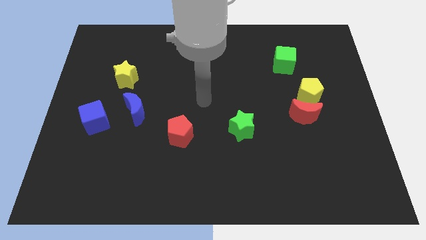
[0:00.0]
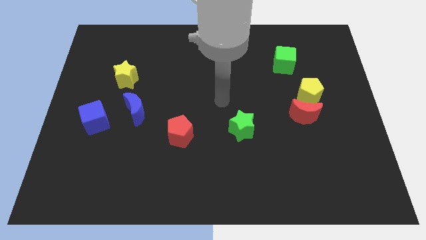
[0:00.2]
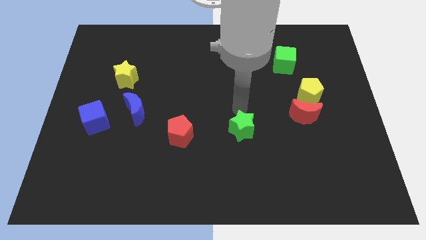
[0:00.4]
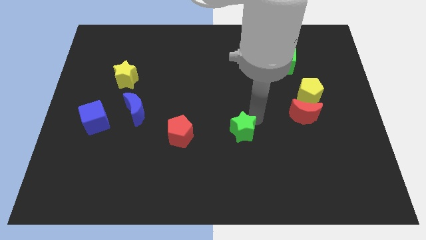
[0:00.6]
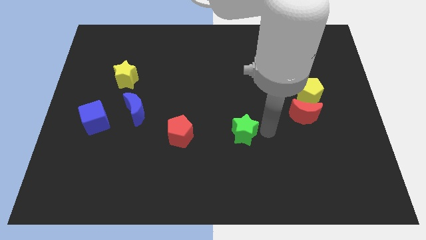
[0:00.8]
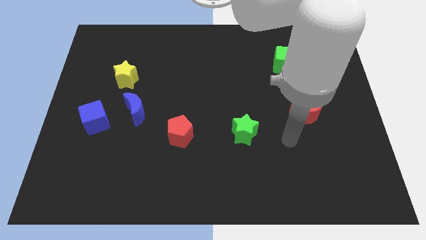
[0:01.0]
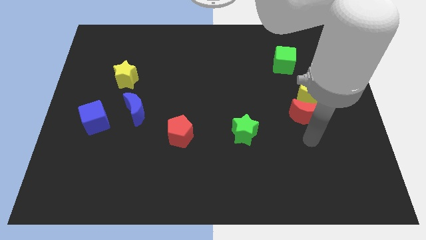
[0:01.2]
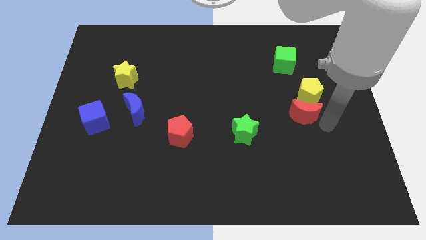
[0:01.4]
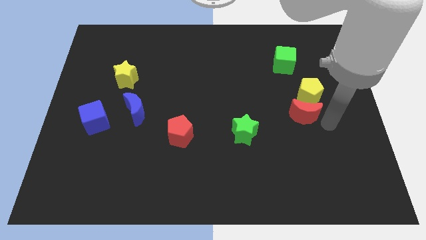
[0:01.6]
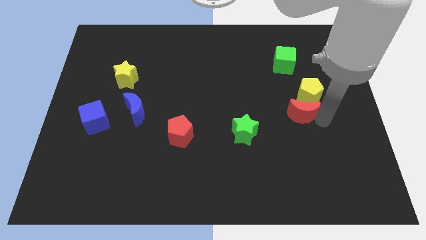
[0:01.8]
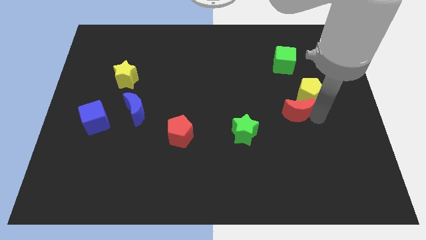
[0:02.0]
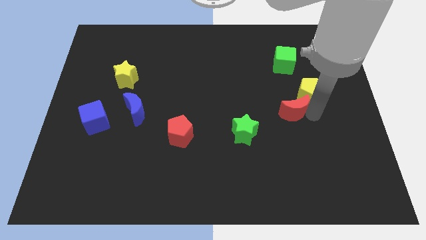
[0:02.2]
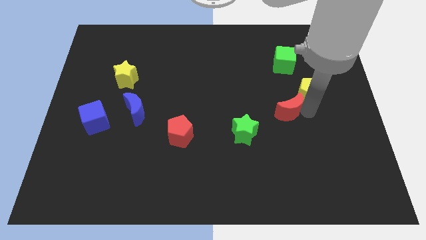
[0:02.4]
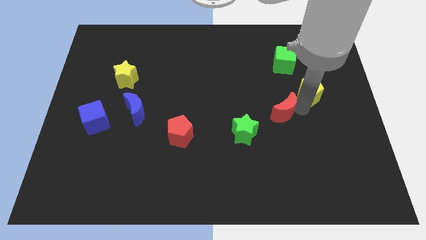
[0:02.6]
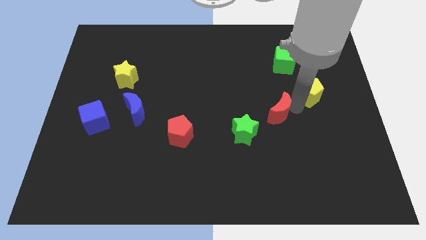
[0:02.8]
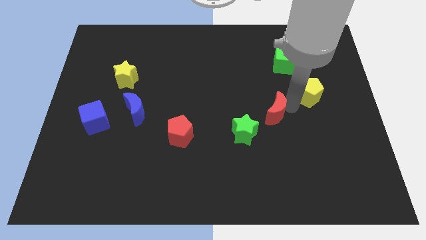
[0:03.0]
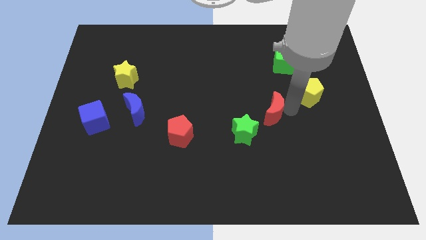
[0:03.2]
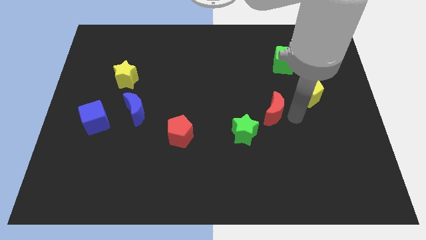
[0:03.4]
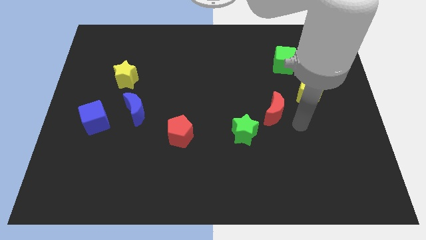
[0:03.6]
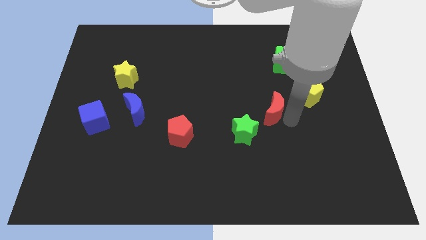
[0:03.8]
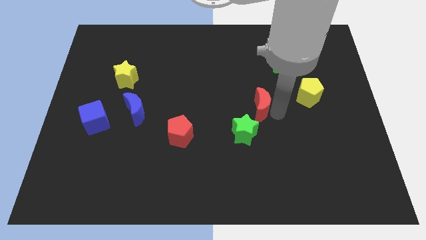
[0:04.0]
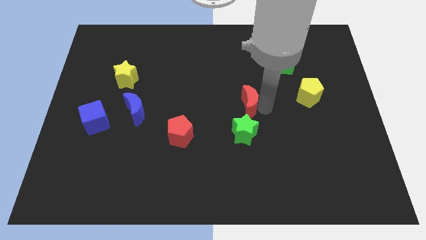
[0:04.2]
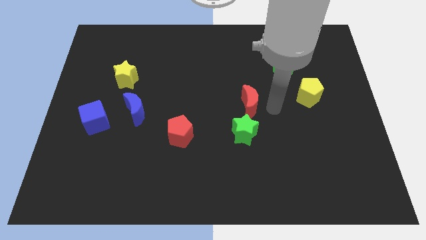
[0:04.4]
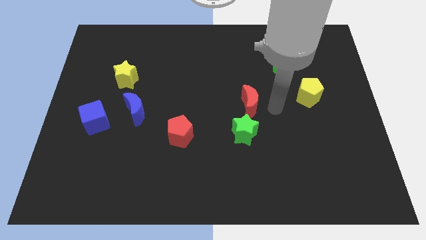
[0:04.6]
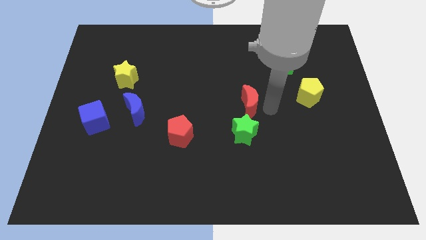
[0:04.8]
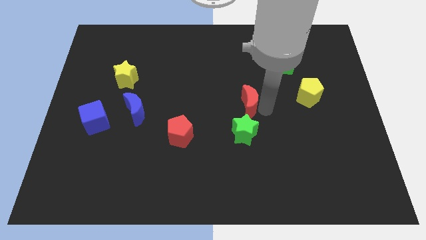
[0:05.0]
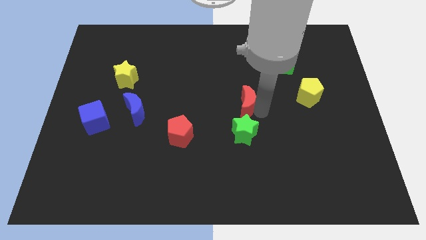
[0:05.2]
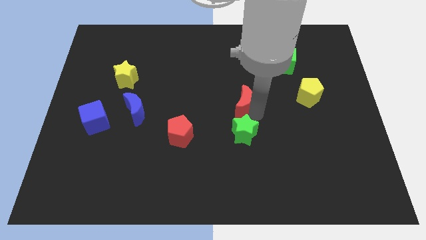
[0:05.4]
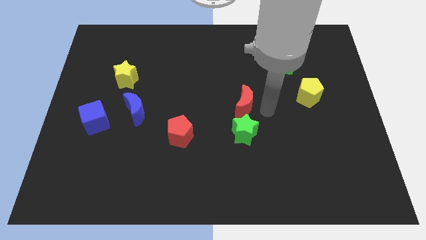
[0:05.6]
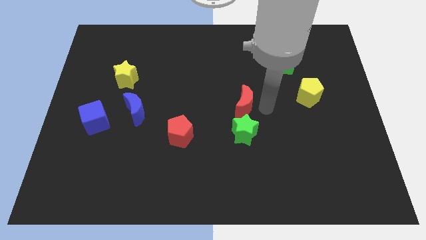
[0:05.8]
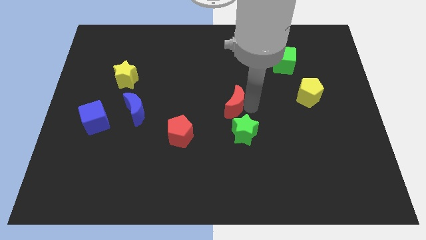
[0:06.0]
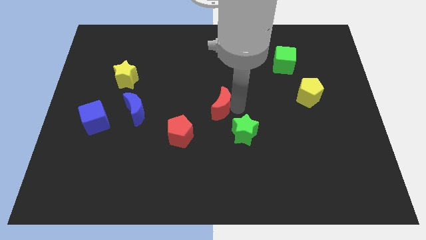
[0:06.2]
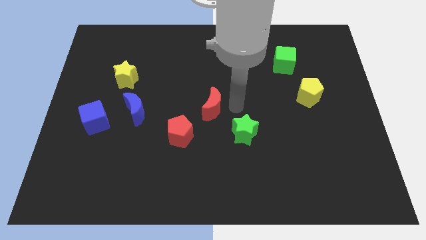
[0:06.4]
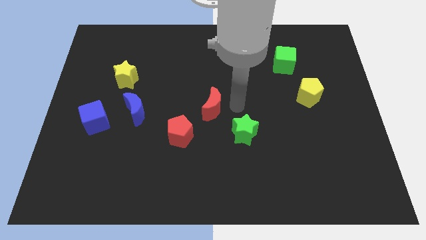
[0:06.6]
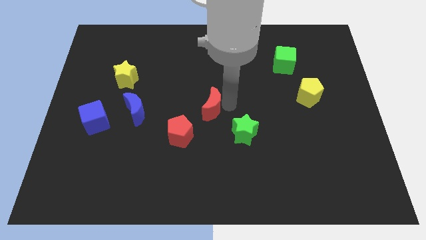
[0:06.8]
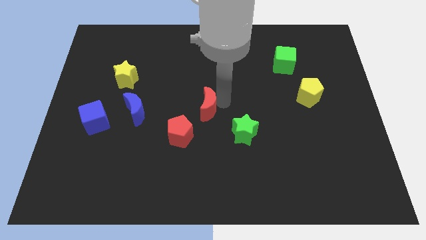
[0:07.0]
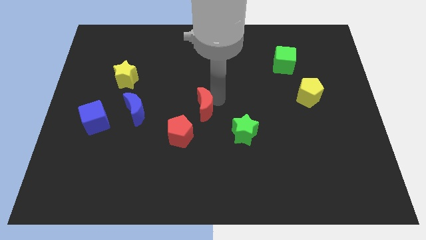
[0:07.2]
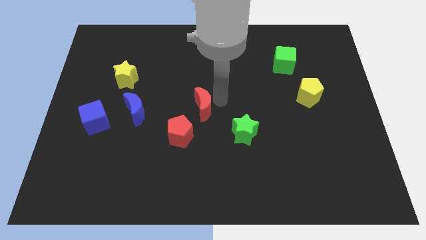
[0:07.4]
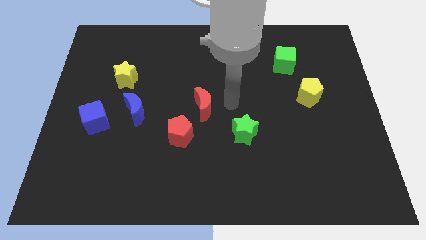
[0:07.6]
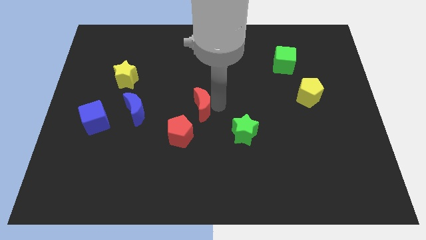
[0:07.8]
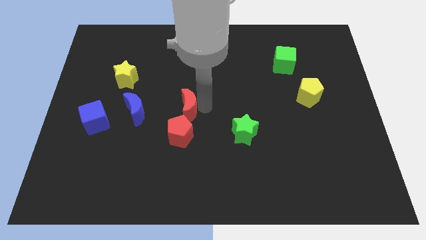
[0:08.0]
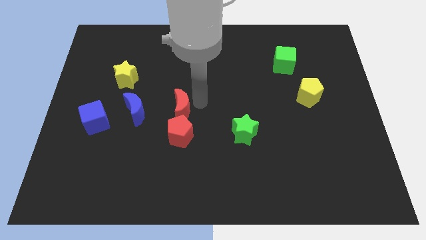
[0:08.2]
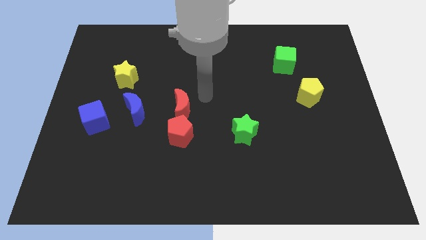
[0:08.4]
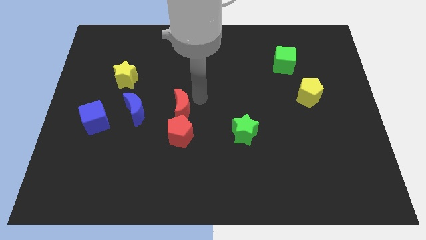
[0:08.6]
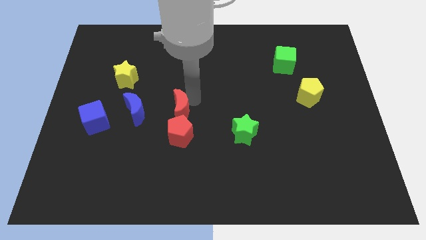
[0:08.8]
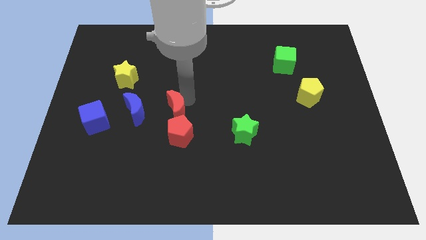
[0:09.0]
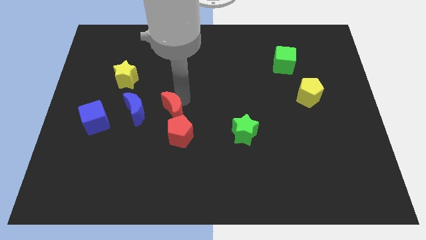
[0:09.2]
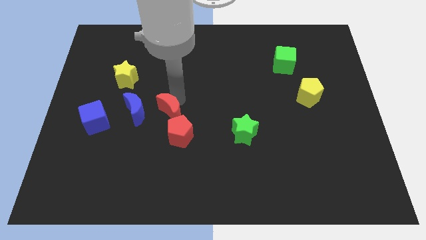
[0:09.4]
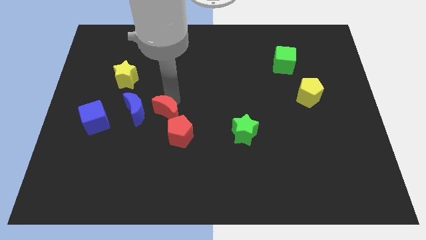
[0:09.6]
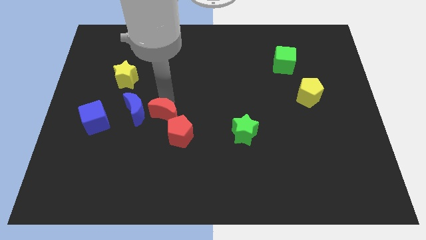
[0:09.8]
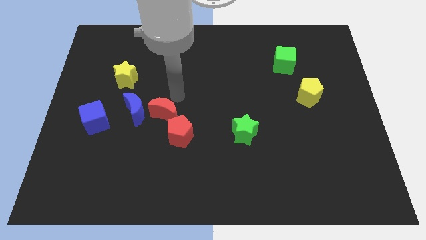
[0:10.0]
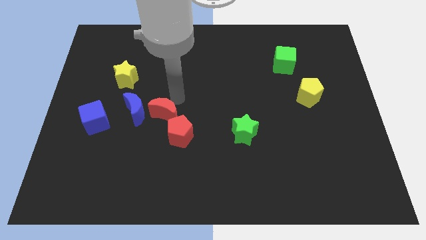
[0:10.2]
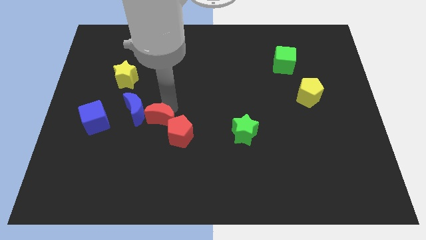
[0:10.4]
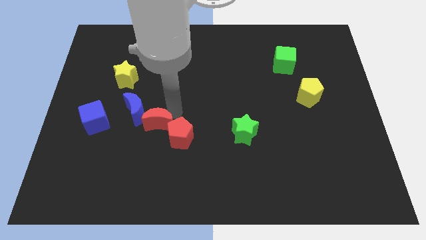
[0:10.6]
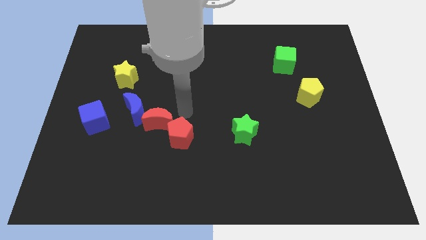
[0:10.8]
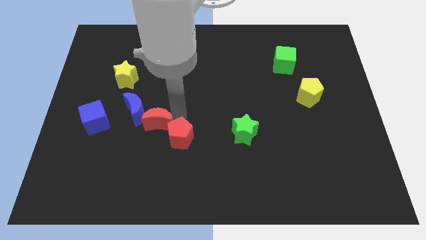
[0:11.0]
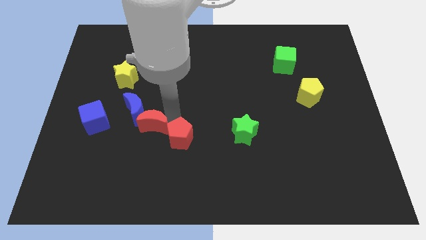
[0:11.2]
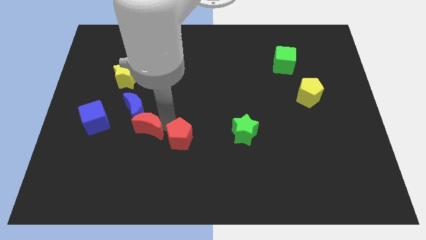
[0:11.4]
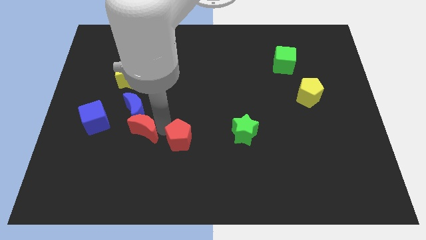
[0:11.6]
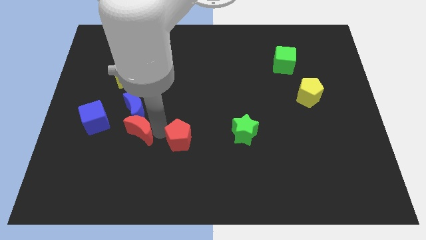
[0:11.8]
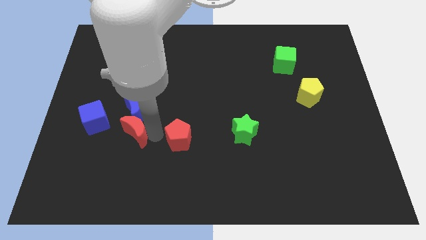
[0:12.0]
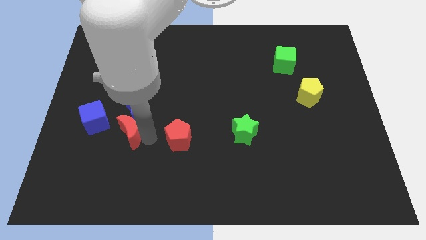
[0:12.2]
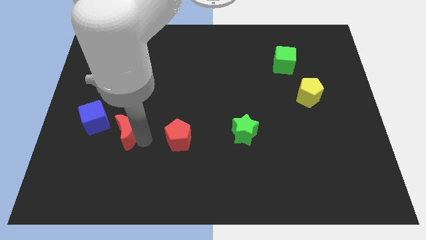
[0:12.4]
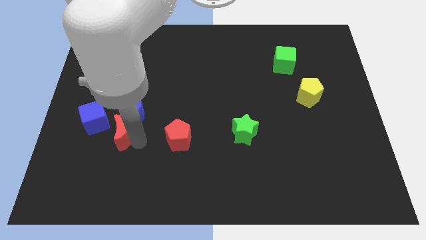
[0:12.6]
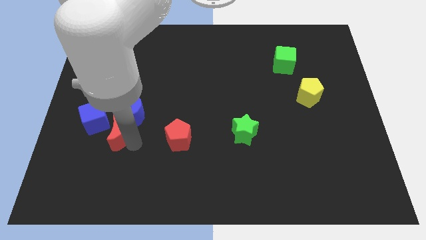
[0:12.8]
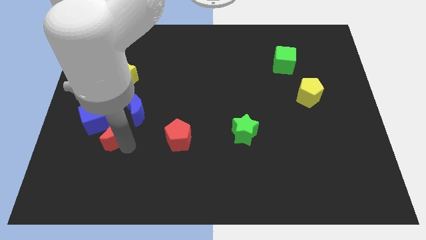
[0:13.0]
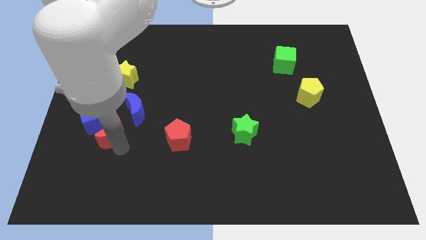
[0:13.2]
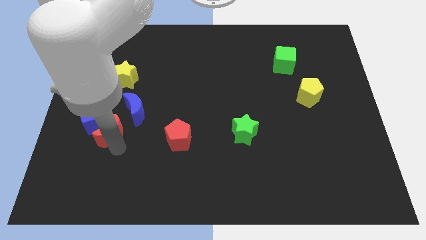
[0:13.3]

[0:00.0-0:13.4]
put the red moon next to the blue cube

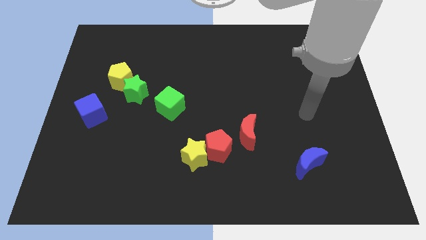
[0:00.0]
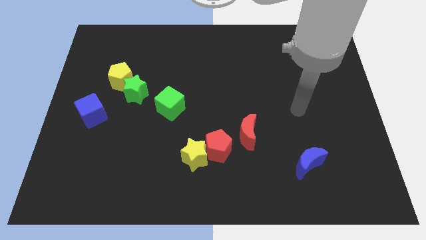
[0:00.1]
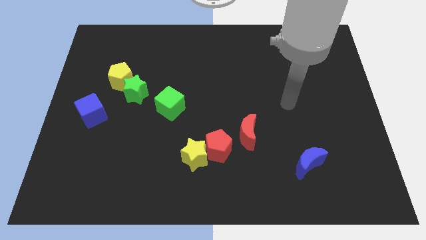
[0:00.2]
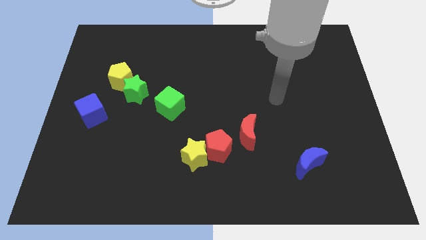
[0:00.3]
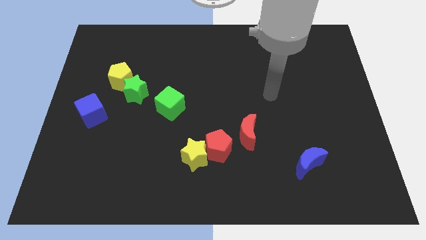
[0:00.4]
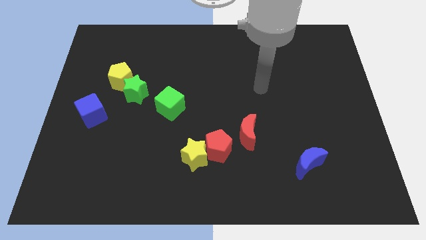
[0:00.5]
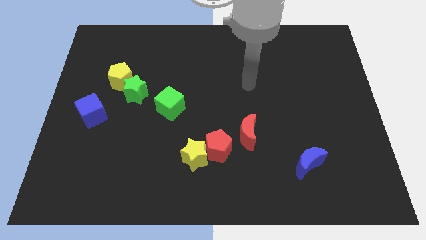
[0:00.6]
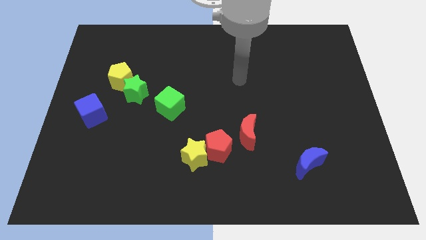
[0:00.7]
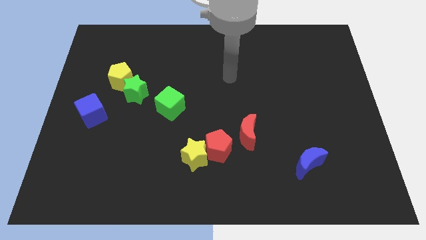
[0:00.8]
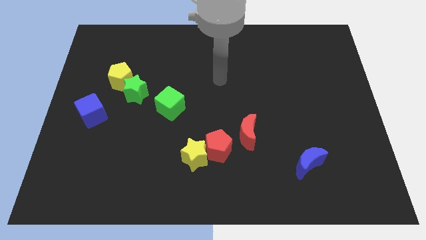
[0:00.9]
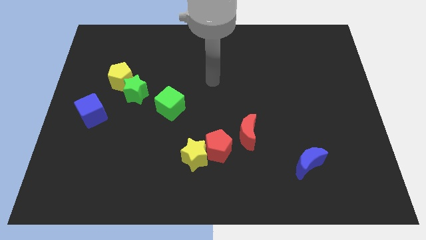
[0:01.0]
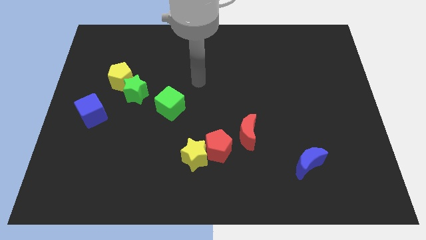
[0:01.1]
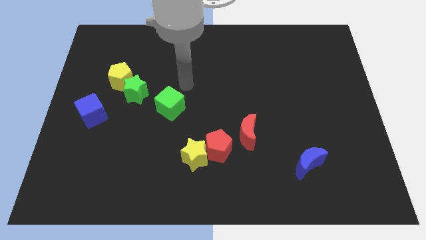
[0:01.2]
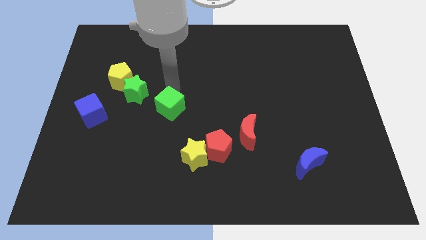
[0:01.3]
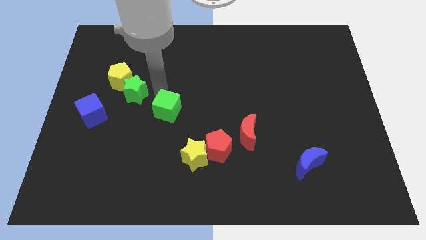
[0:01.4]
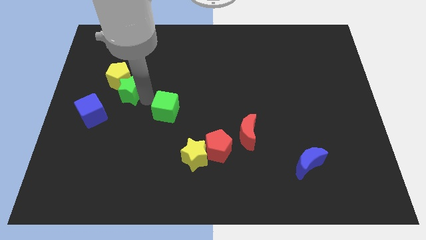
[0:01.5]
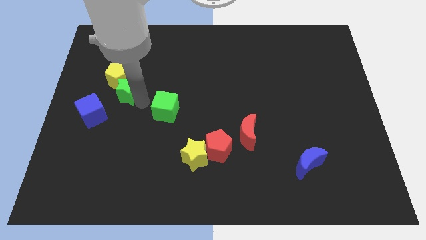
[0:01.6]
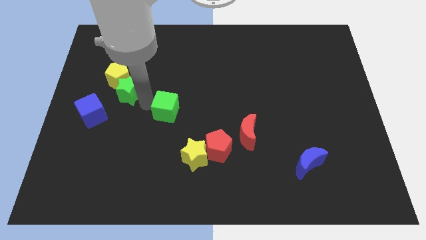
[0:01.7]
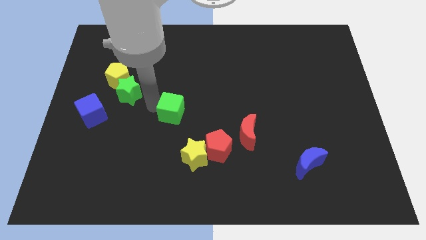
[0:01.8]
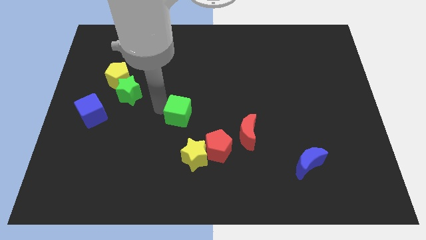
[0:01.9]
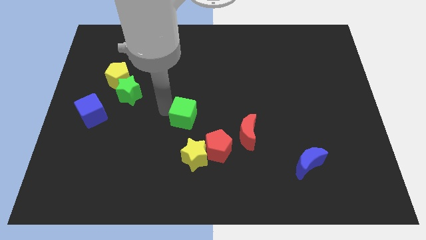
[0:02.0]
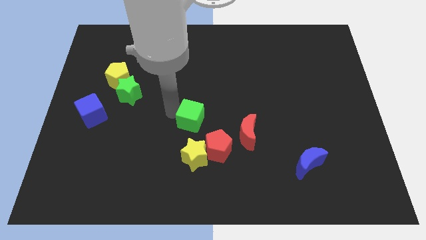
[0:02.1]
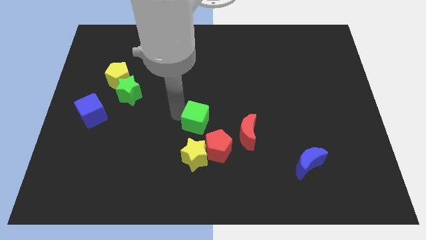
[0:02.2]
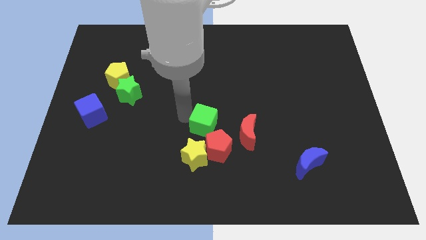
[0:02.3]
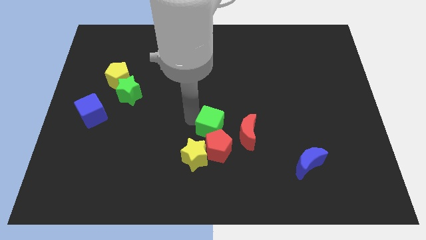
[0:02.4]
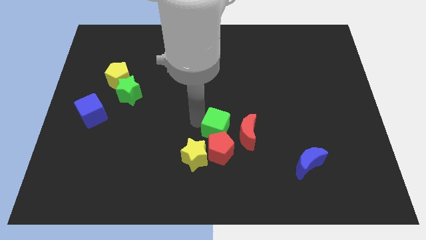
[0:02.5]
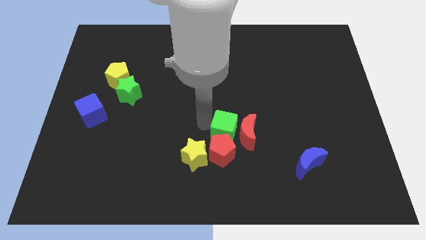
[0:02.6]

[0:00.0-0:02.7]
move the green cube towards the red moon
